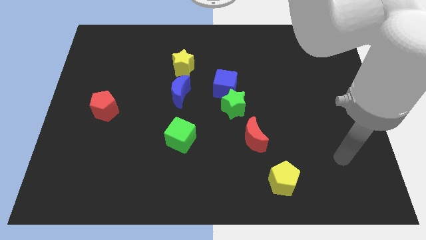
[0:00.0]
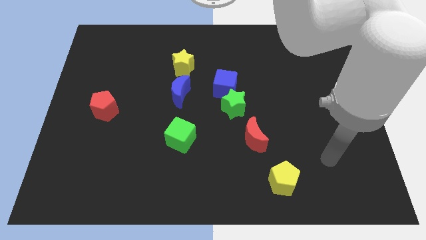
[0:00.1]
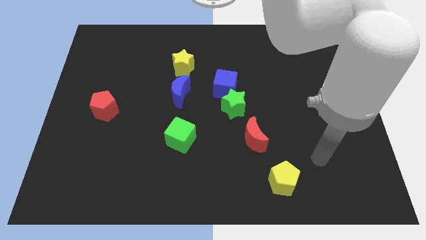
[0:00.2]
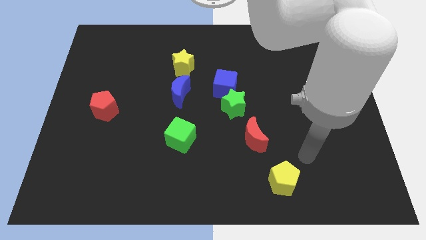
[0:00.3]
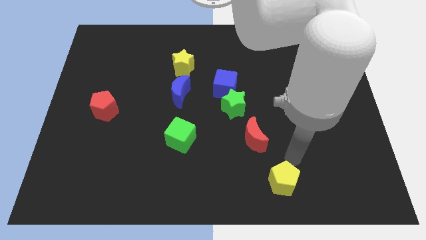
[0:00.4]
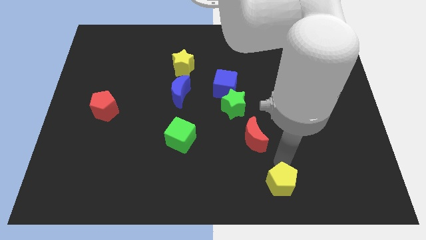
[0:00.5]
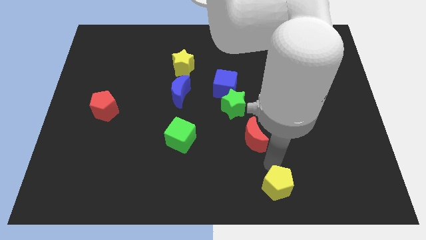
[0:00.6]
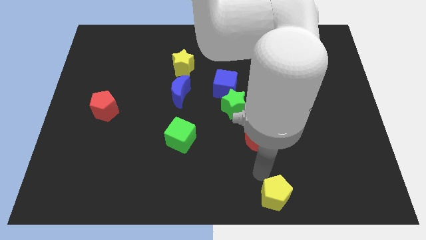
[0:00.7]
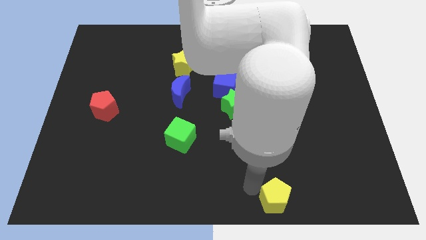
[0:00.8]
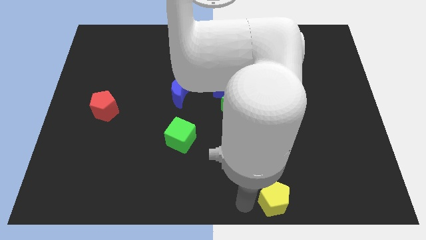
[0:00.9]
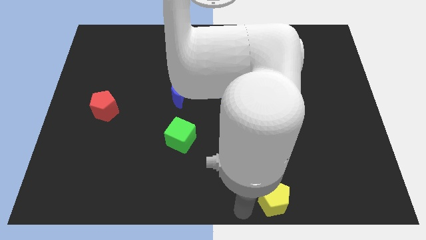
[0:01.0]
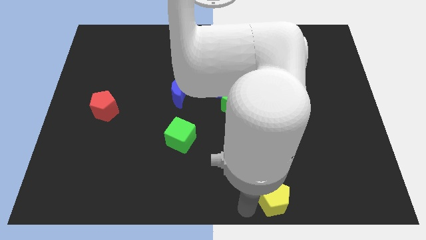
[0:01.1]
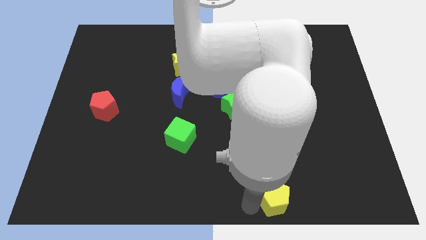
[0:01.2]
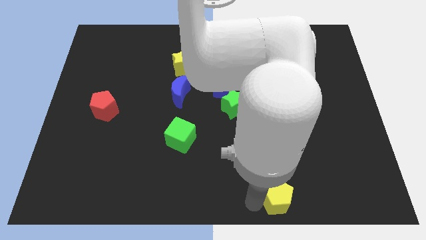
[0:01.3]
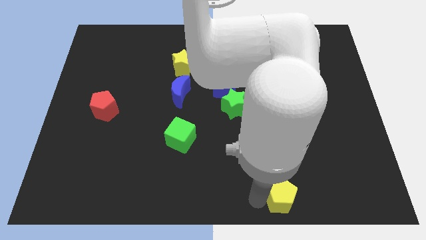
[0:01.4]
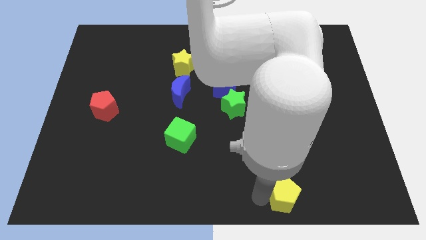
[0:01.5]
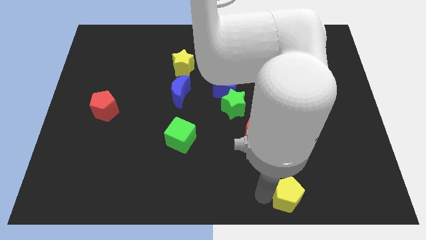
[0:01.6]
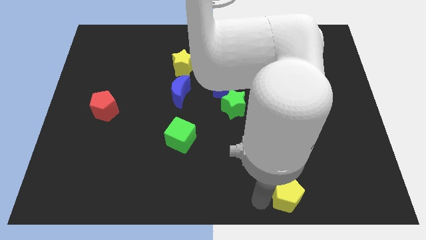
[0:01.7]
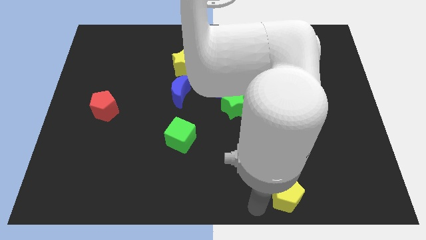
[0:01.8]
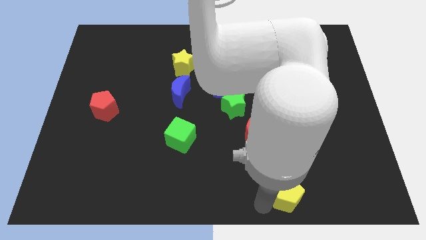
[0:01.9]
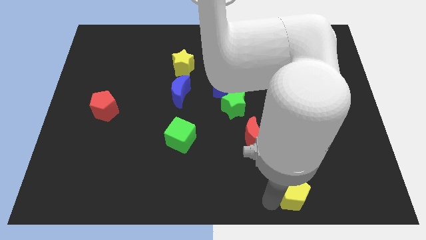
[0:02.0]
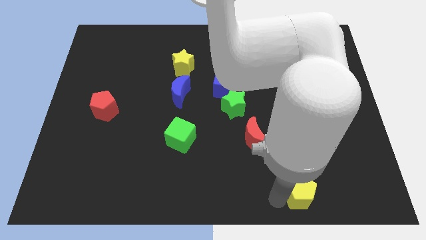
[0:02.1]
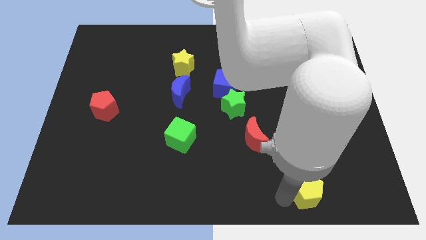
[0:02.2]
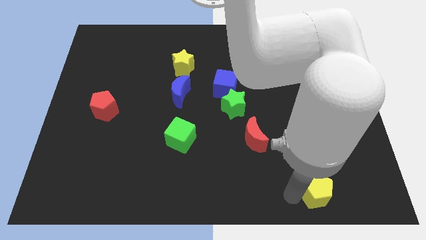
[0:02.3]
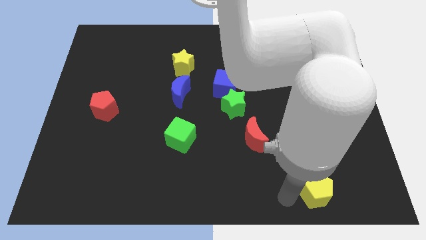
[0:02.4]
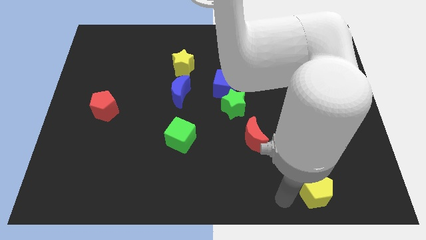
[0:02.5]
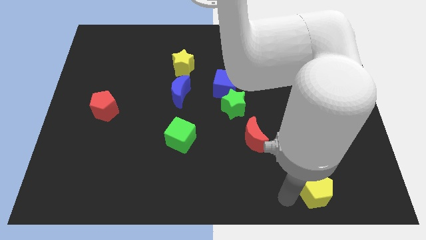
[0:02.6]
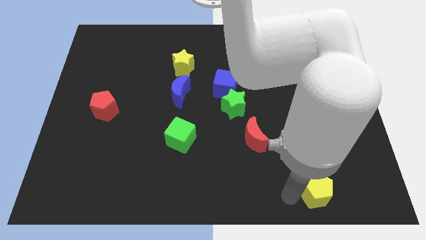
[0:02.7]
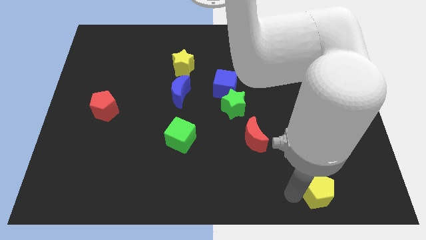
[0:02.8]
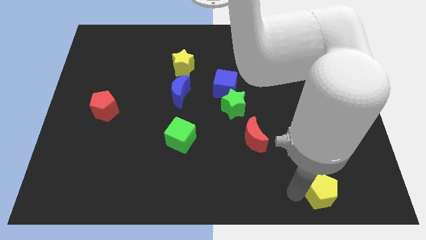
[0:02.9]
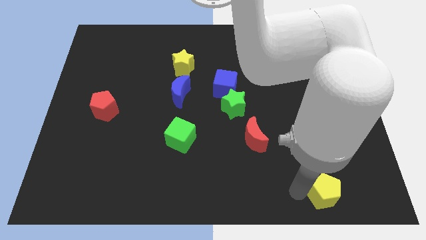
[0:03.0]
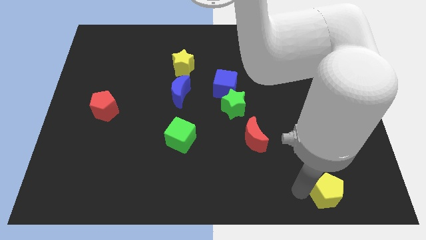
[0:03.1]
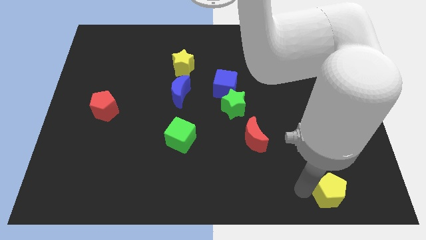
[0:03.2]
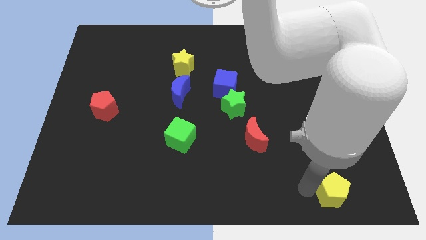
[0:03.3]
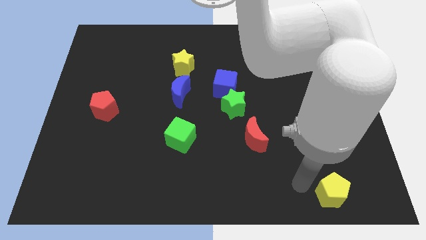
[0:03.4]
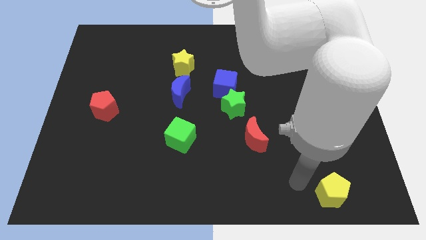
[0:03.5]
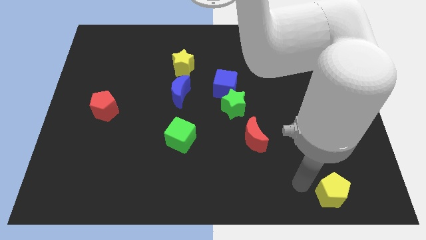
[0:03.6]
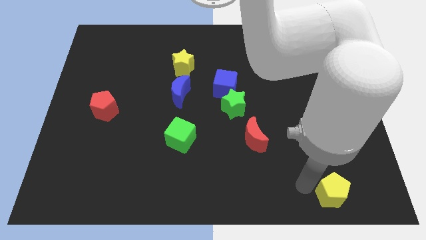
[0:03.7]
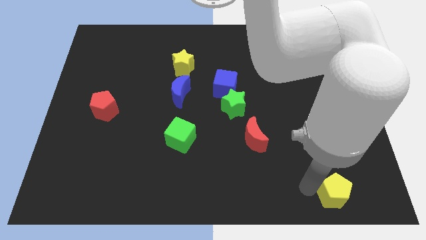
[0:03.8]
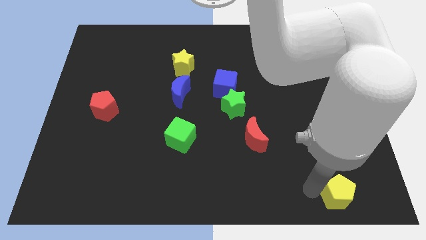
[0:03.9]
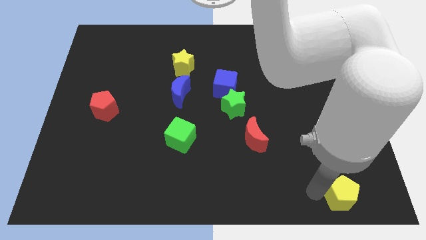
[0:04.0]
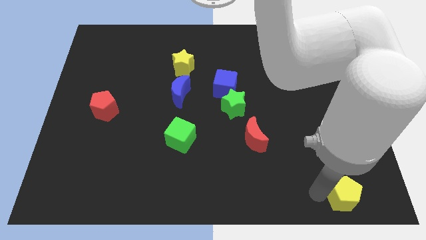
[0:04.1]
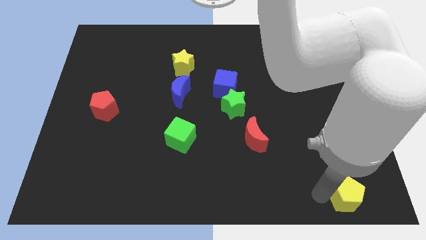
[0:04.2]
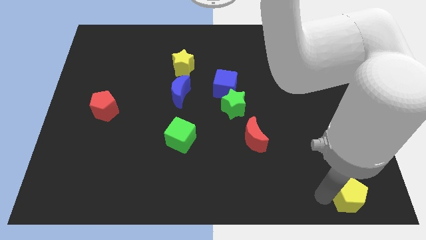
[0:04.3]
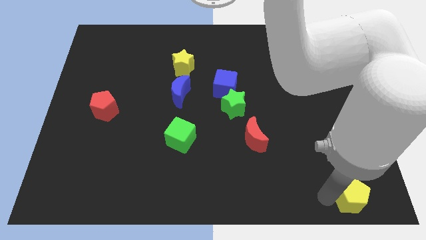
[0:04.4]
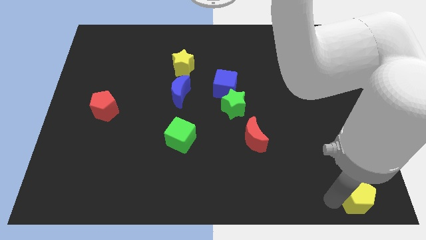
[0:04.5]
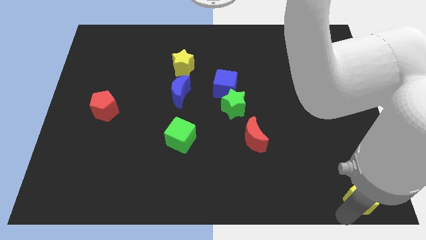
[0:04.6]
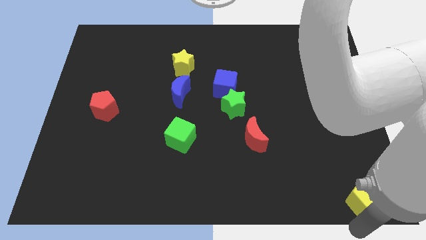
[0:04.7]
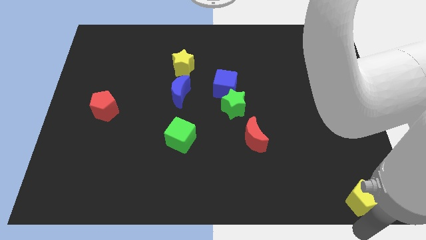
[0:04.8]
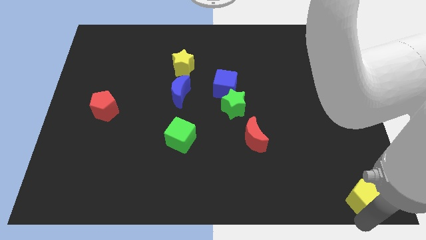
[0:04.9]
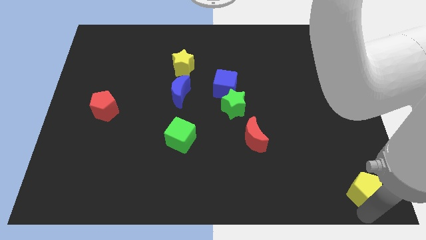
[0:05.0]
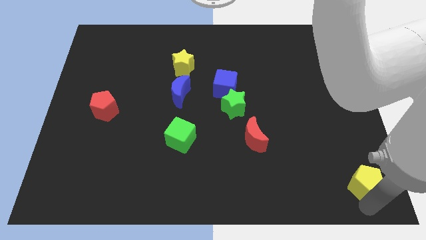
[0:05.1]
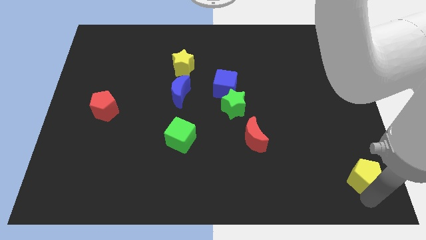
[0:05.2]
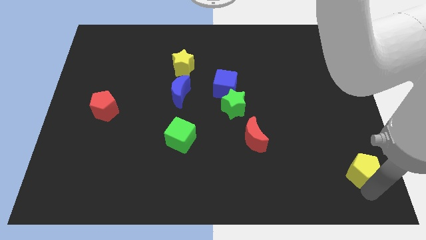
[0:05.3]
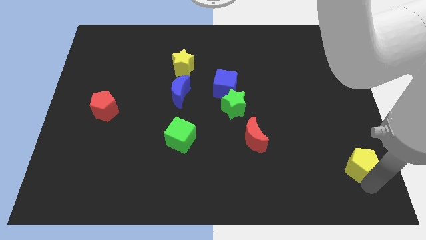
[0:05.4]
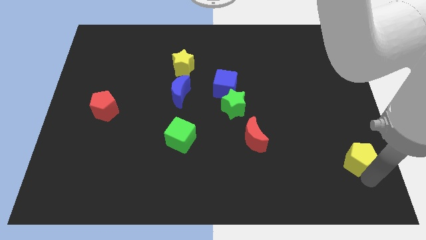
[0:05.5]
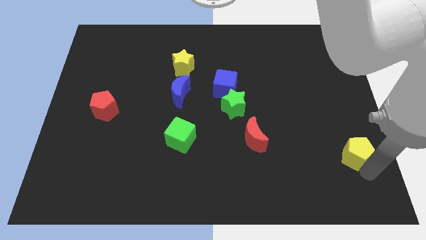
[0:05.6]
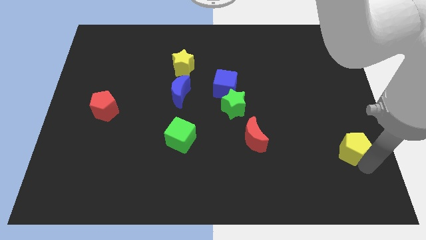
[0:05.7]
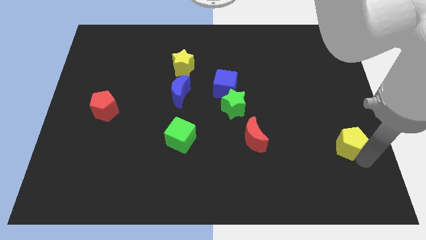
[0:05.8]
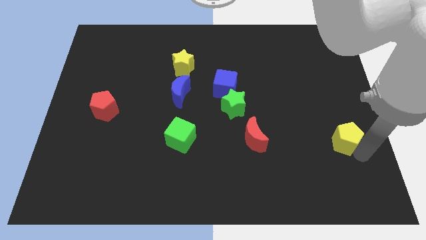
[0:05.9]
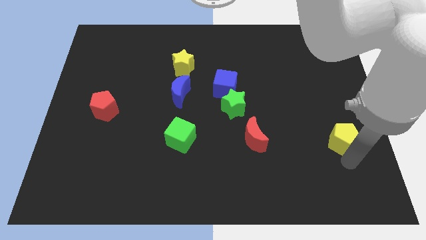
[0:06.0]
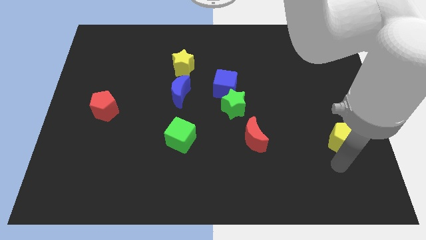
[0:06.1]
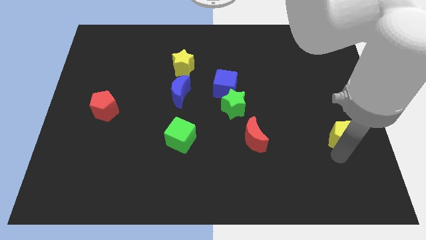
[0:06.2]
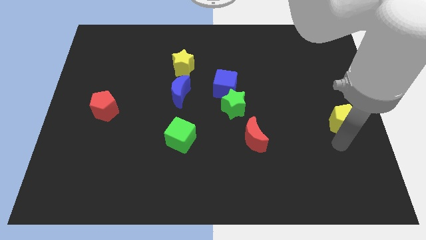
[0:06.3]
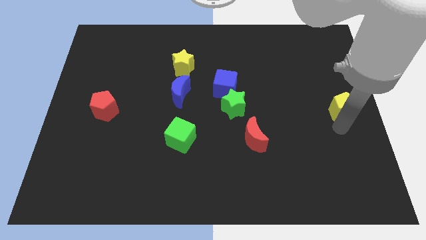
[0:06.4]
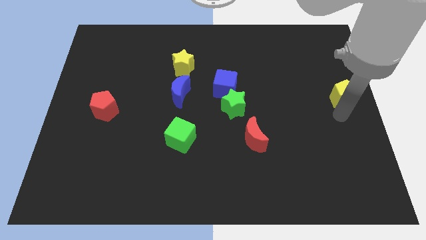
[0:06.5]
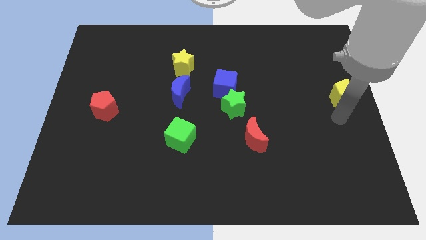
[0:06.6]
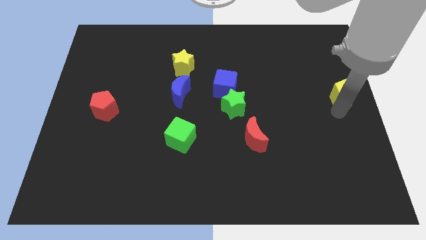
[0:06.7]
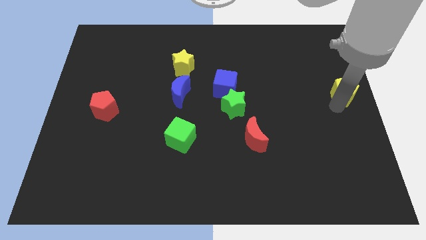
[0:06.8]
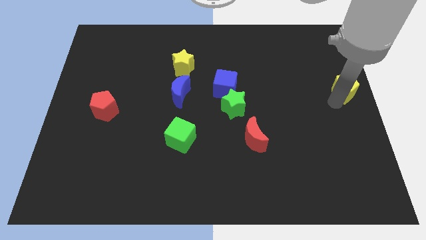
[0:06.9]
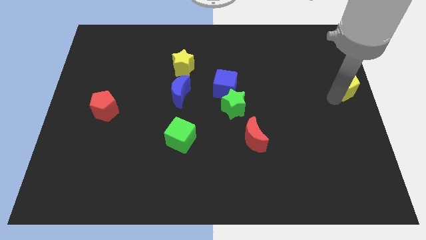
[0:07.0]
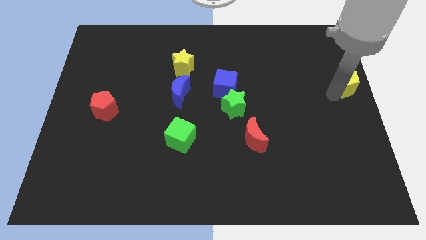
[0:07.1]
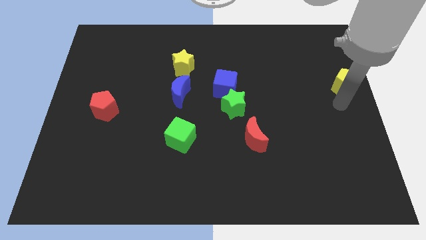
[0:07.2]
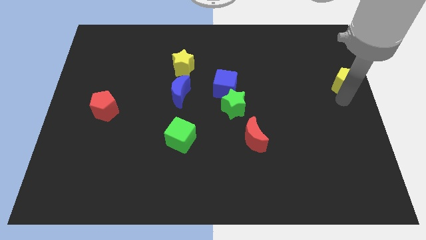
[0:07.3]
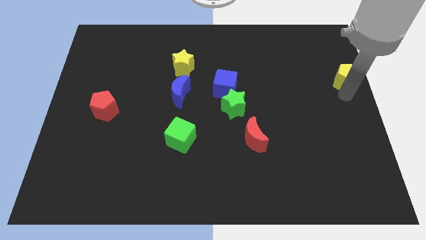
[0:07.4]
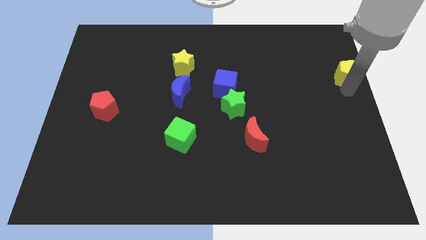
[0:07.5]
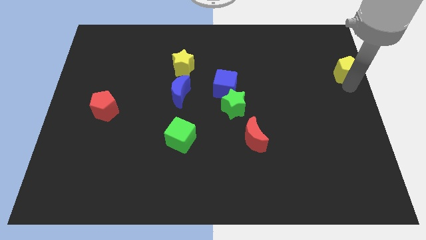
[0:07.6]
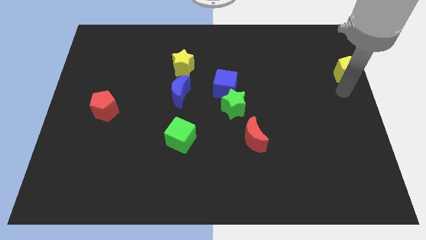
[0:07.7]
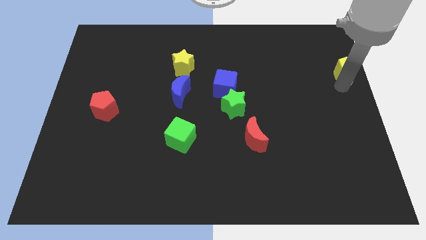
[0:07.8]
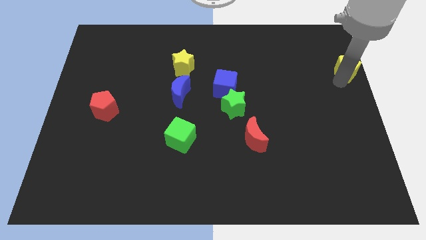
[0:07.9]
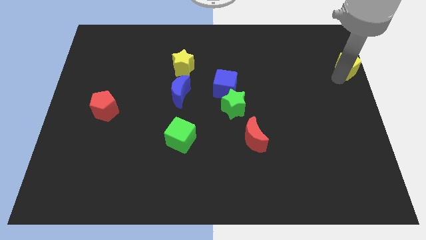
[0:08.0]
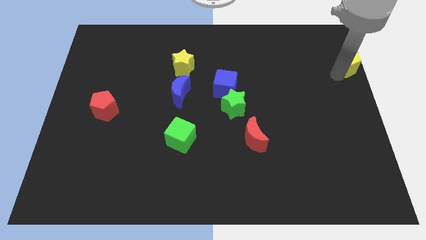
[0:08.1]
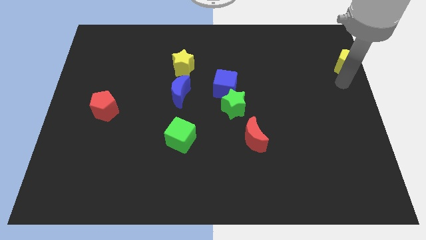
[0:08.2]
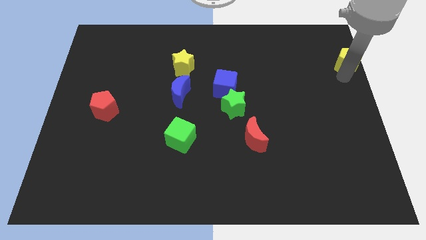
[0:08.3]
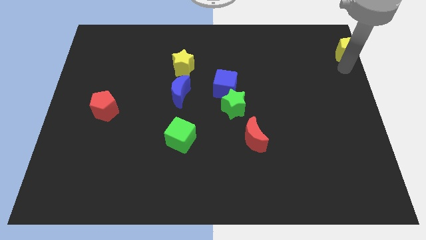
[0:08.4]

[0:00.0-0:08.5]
put the yellow pentagon to the top right corner
